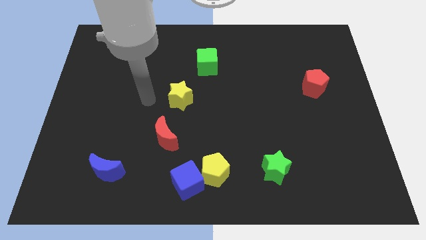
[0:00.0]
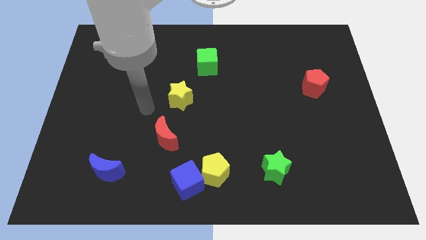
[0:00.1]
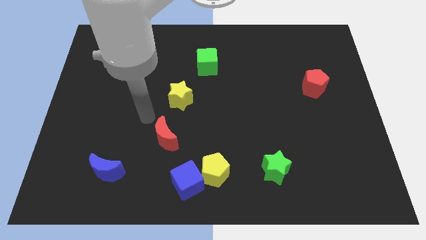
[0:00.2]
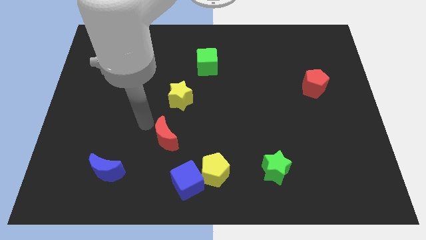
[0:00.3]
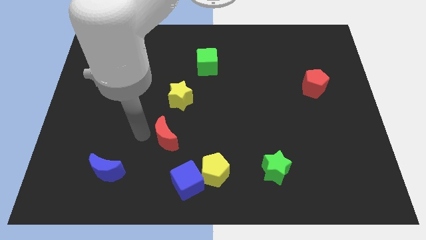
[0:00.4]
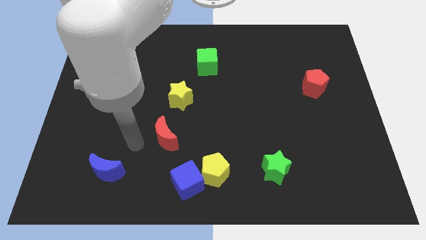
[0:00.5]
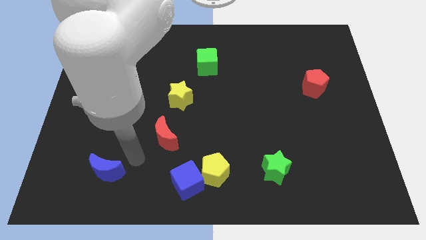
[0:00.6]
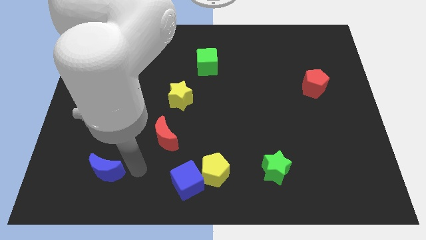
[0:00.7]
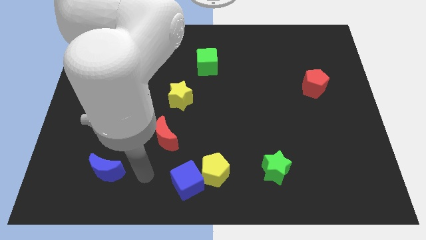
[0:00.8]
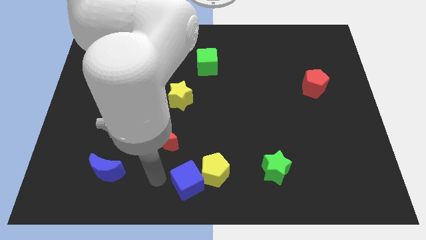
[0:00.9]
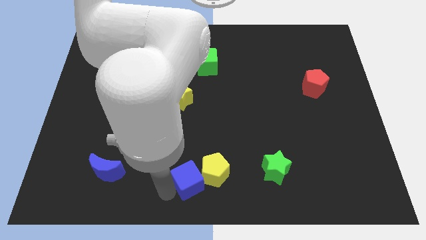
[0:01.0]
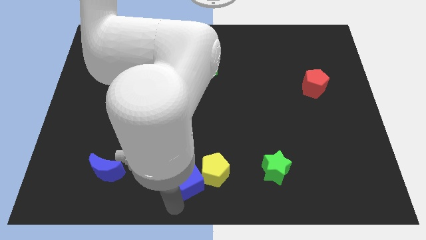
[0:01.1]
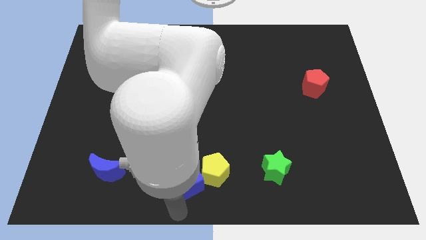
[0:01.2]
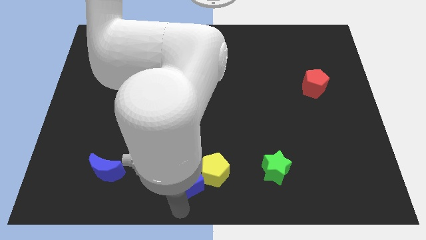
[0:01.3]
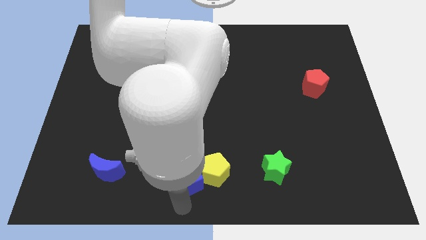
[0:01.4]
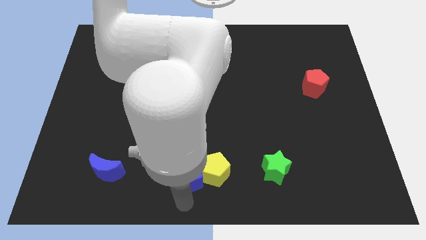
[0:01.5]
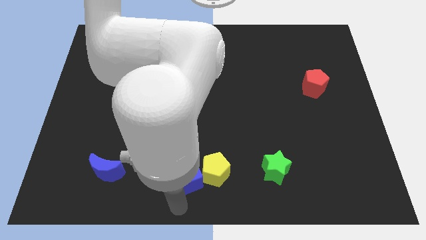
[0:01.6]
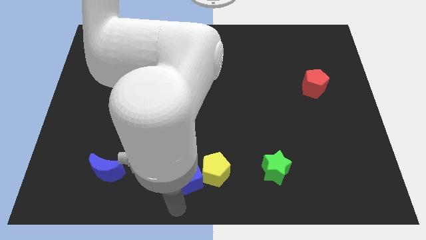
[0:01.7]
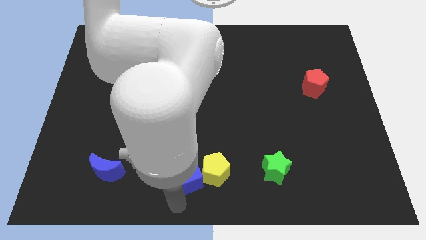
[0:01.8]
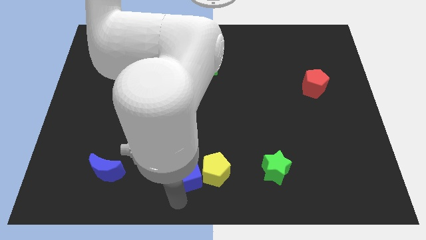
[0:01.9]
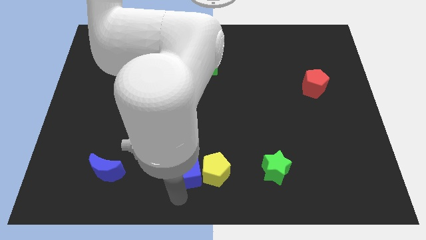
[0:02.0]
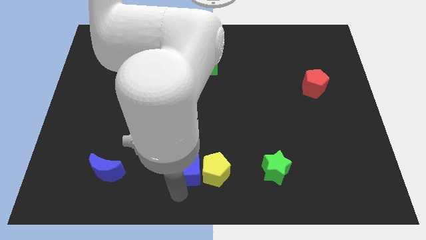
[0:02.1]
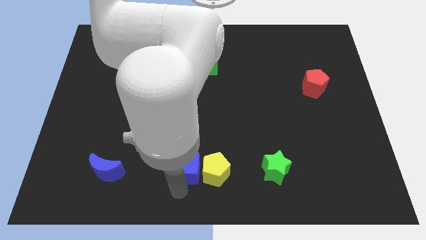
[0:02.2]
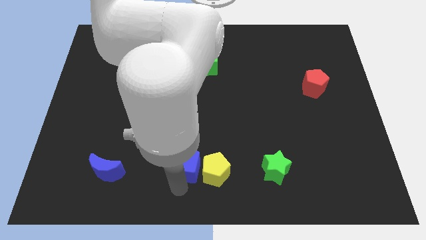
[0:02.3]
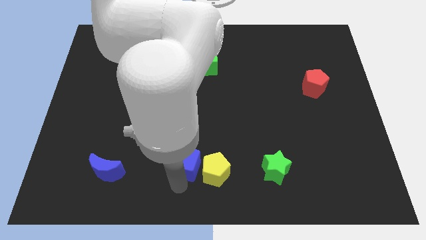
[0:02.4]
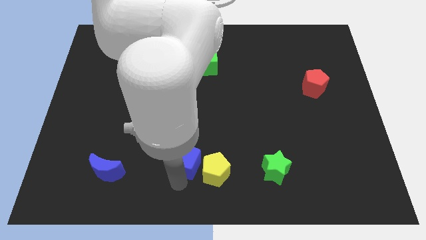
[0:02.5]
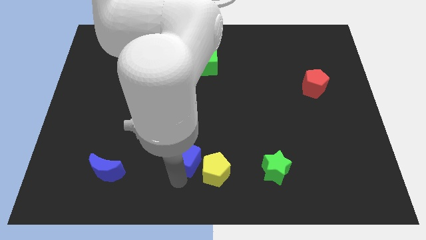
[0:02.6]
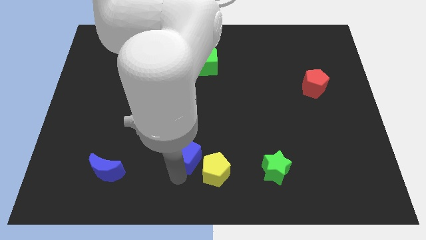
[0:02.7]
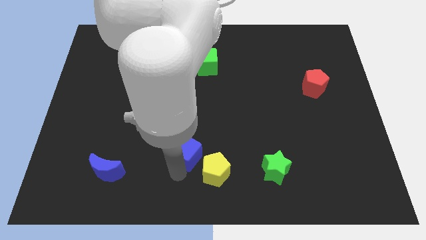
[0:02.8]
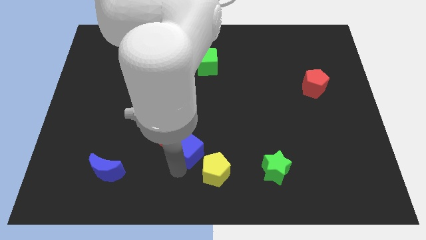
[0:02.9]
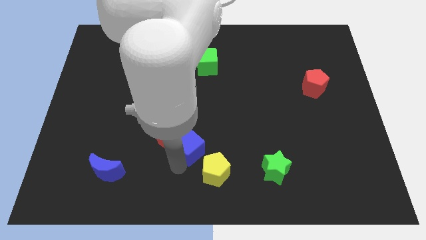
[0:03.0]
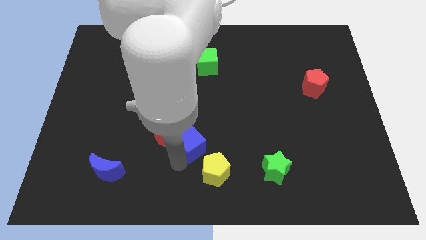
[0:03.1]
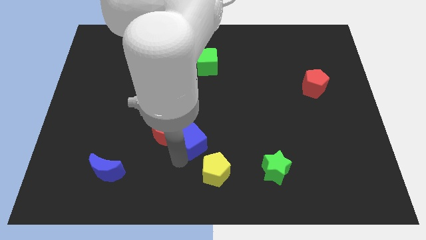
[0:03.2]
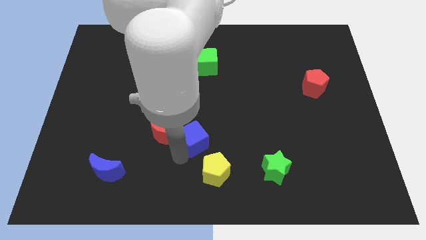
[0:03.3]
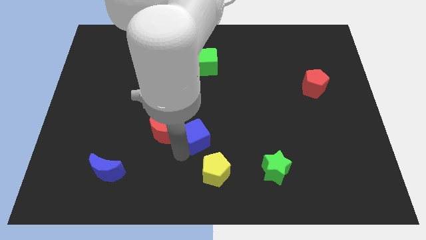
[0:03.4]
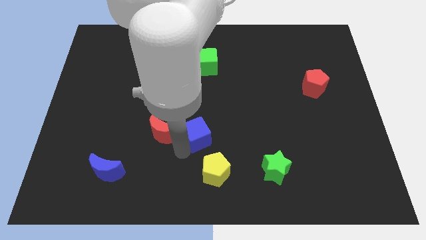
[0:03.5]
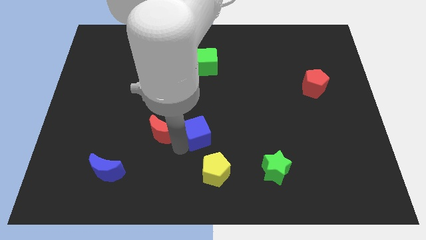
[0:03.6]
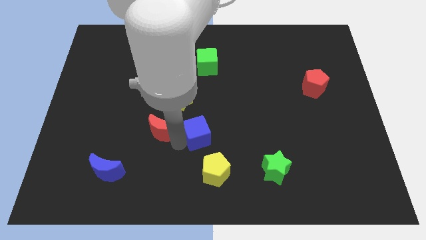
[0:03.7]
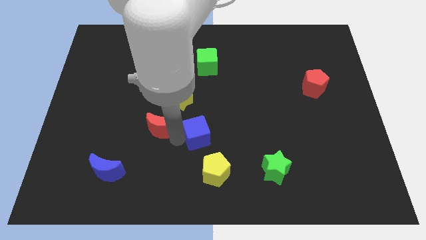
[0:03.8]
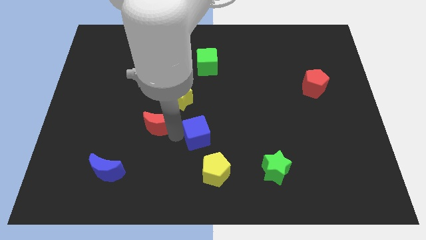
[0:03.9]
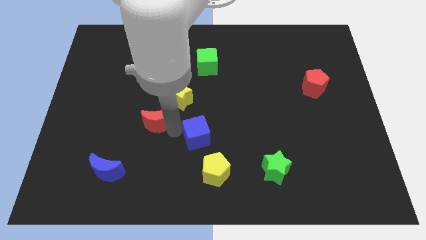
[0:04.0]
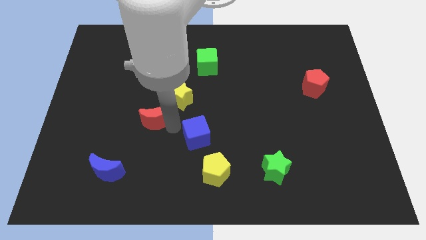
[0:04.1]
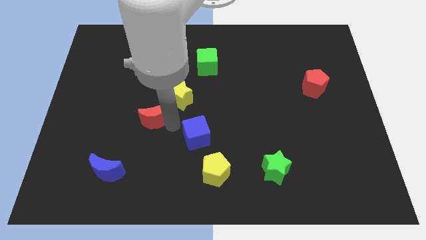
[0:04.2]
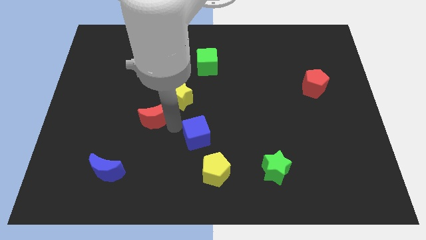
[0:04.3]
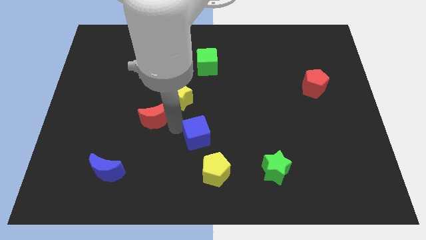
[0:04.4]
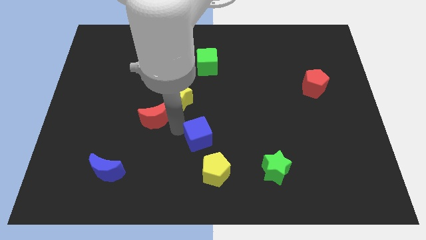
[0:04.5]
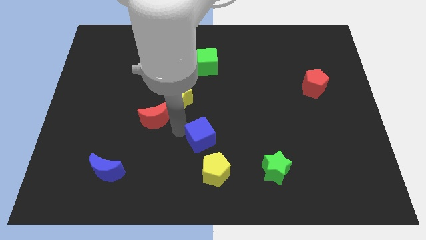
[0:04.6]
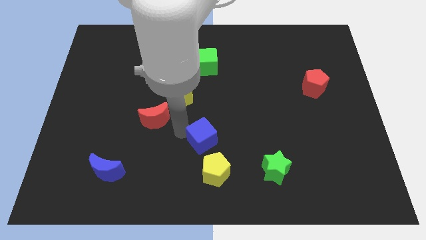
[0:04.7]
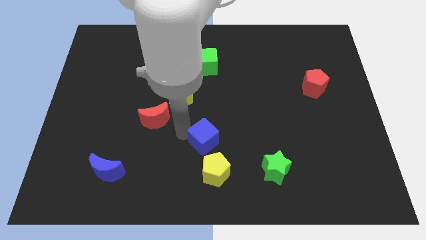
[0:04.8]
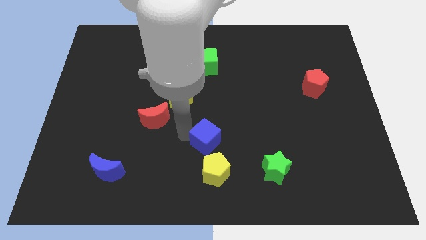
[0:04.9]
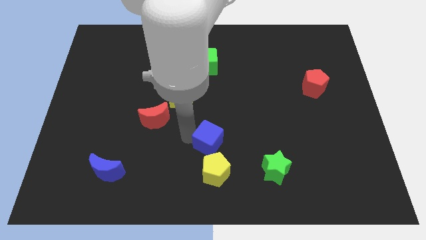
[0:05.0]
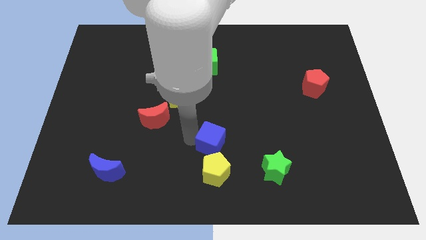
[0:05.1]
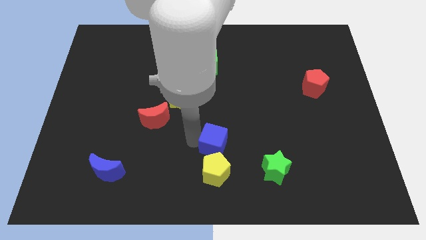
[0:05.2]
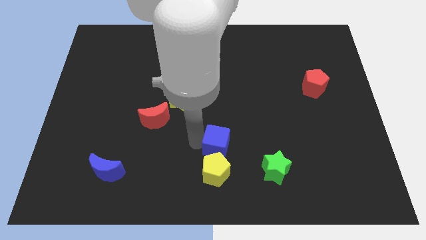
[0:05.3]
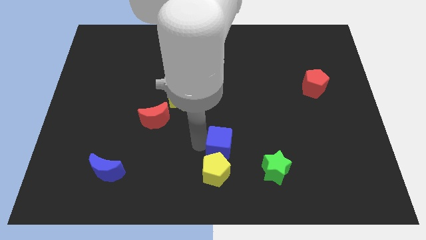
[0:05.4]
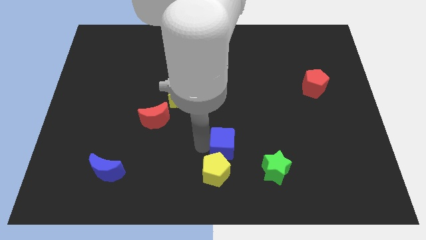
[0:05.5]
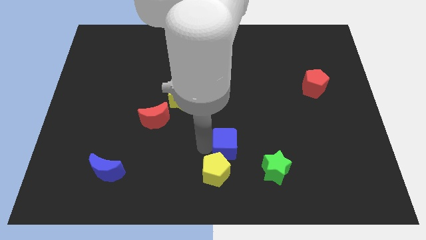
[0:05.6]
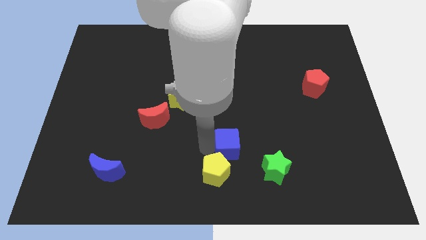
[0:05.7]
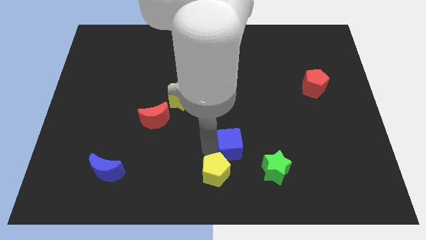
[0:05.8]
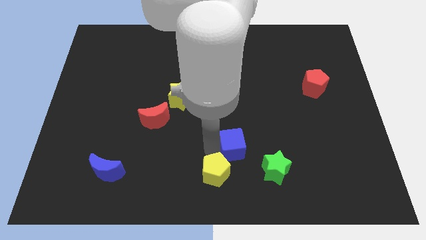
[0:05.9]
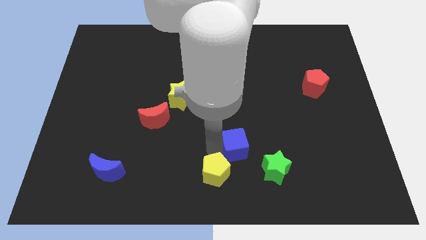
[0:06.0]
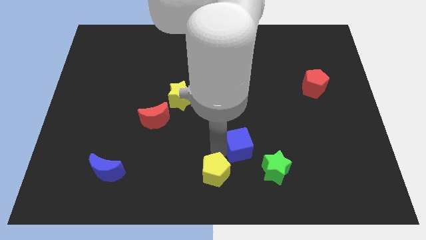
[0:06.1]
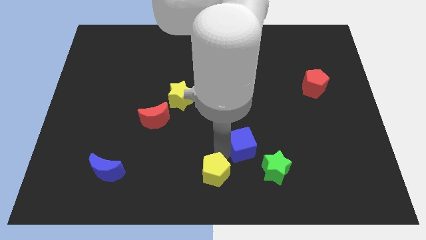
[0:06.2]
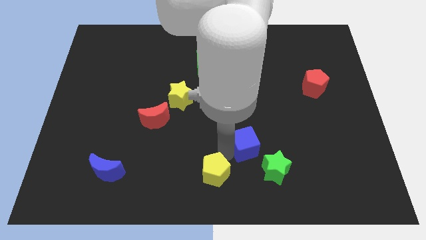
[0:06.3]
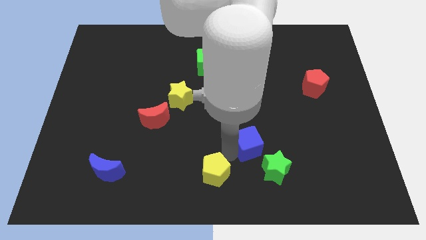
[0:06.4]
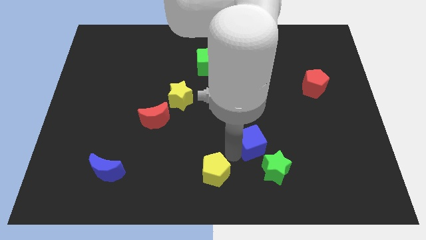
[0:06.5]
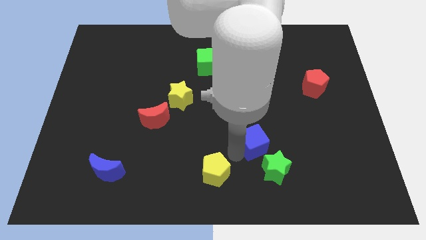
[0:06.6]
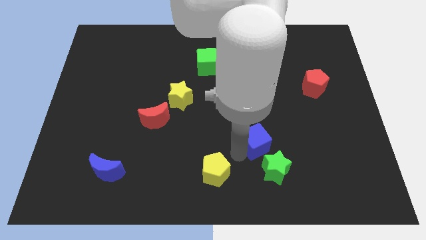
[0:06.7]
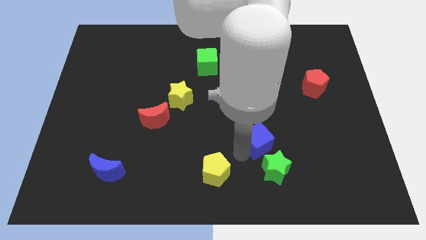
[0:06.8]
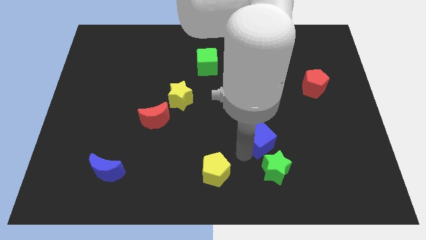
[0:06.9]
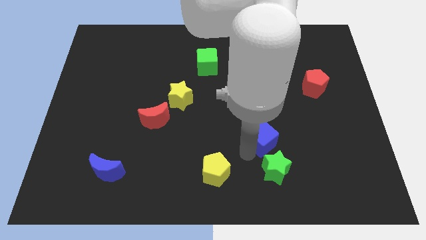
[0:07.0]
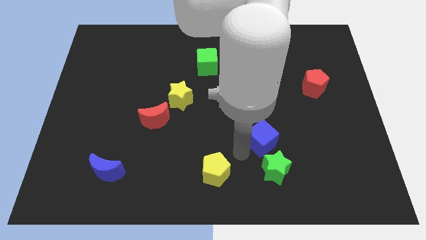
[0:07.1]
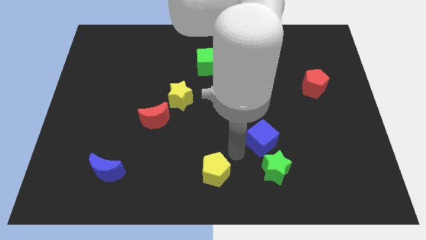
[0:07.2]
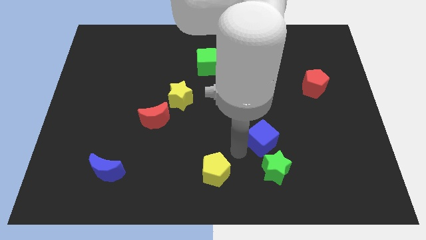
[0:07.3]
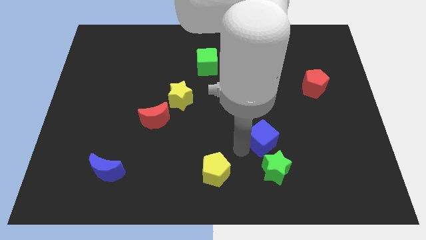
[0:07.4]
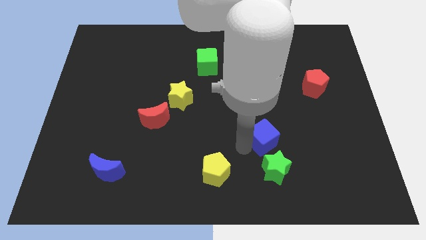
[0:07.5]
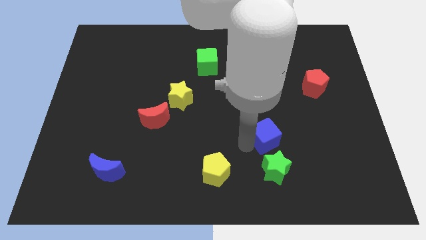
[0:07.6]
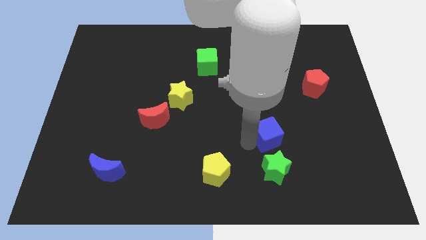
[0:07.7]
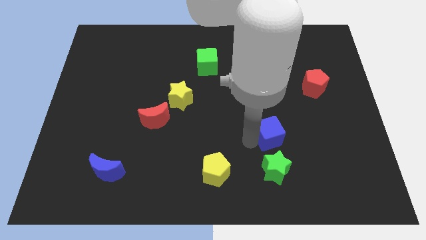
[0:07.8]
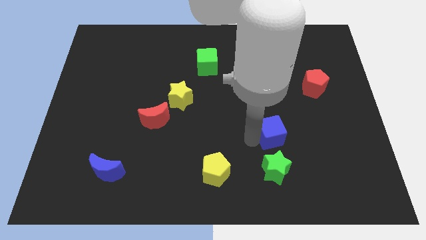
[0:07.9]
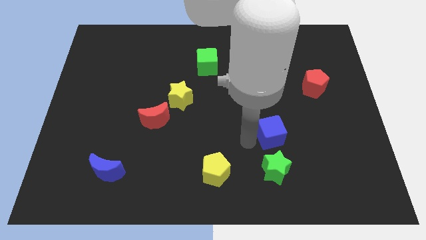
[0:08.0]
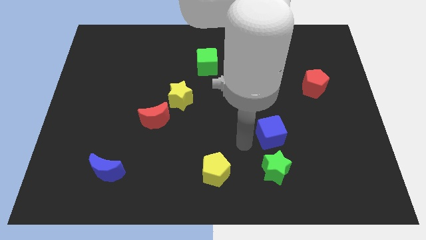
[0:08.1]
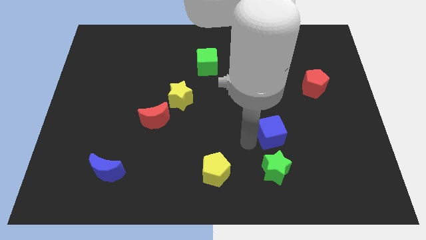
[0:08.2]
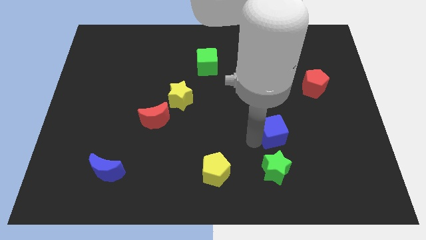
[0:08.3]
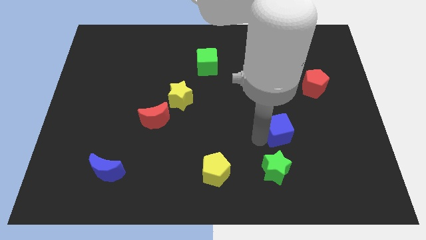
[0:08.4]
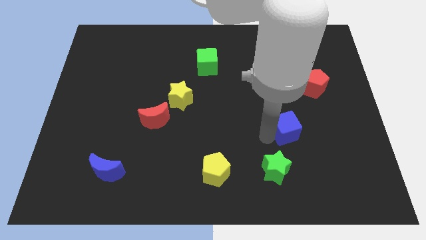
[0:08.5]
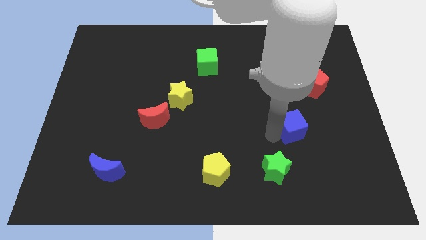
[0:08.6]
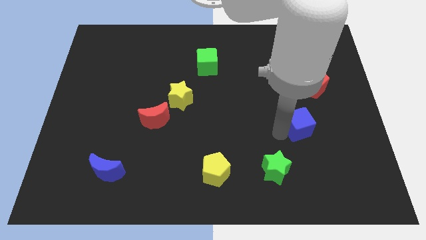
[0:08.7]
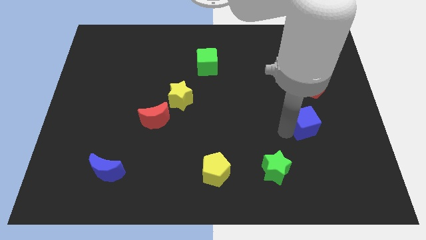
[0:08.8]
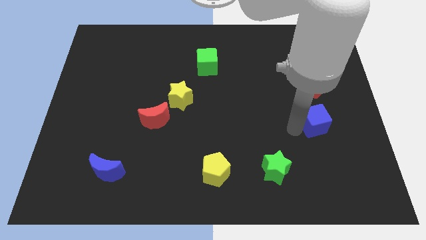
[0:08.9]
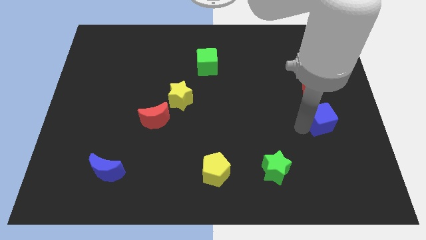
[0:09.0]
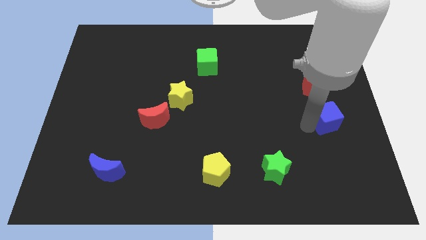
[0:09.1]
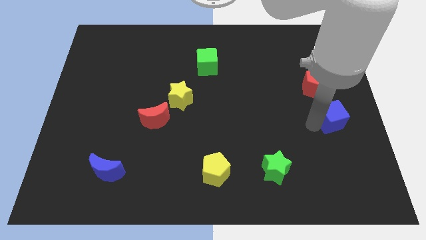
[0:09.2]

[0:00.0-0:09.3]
put the blue cube to the center right
